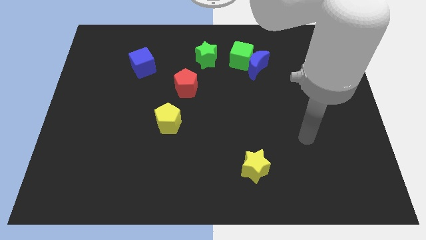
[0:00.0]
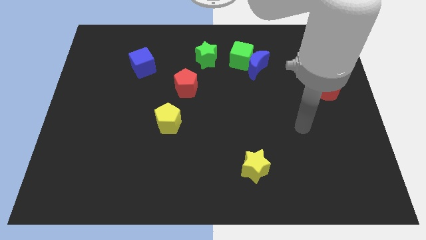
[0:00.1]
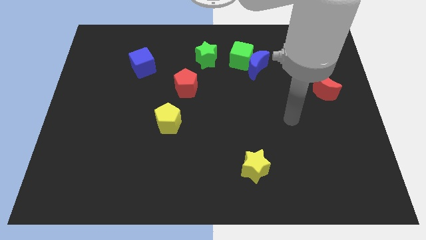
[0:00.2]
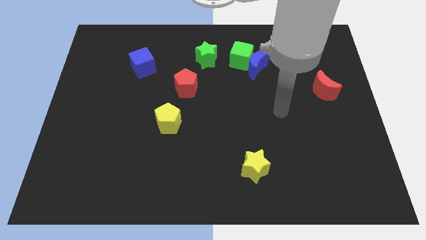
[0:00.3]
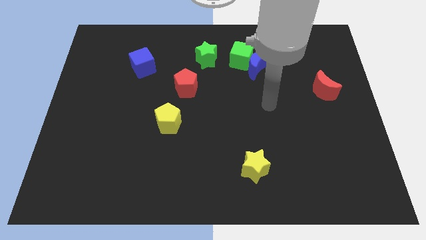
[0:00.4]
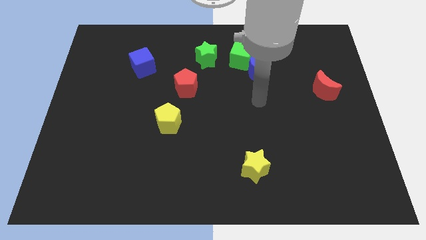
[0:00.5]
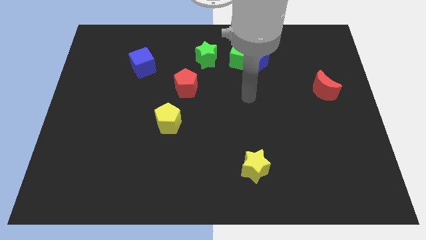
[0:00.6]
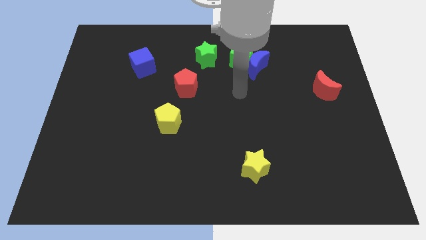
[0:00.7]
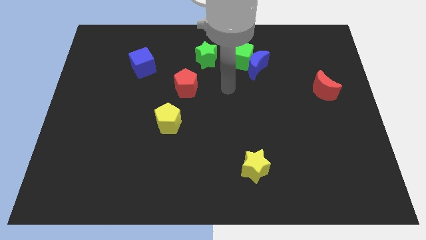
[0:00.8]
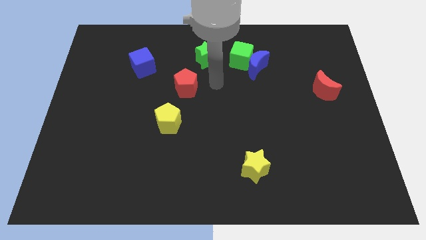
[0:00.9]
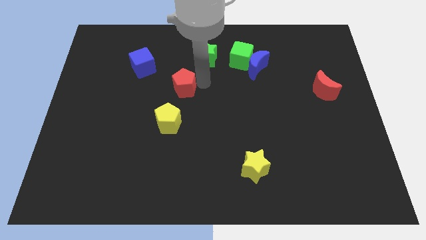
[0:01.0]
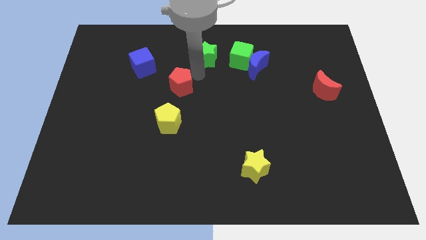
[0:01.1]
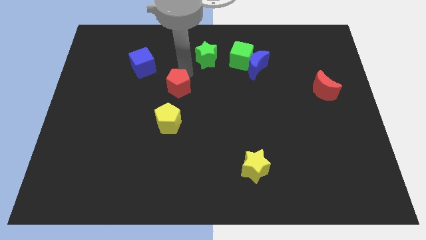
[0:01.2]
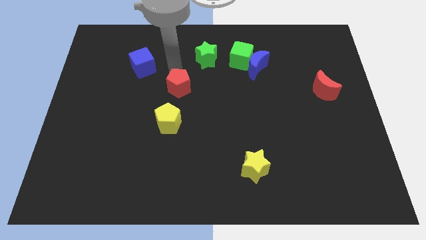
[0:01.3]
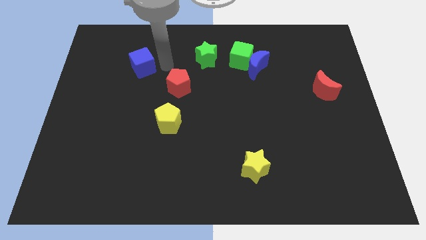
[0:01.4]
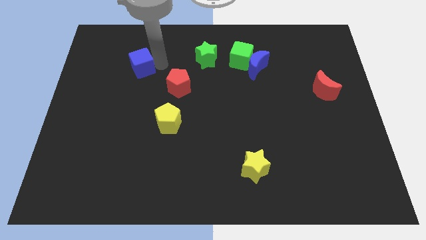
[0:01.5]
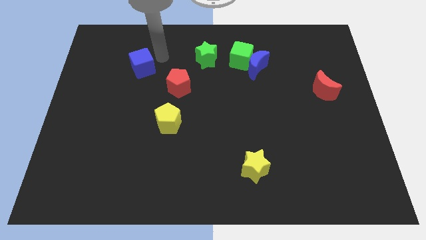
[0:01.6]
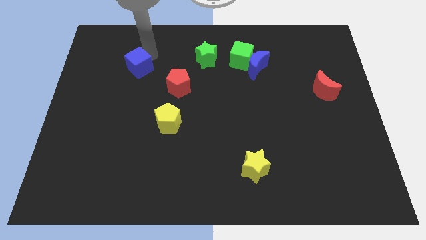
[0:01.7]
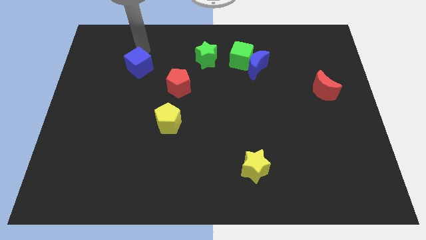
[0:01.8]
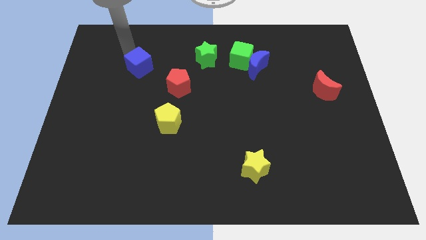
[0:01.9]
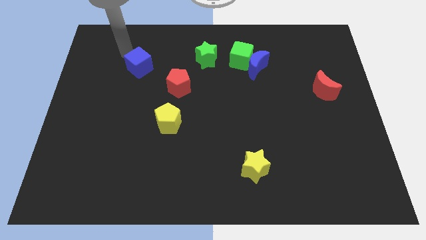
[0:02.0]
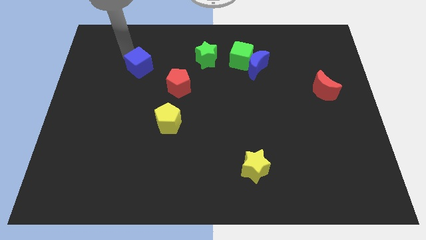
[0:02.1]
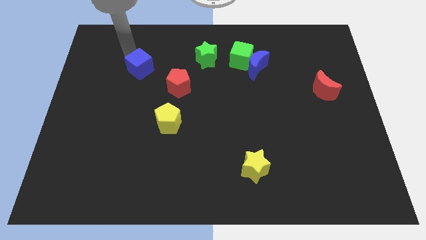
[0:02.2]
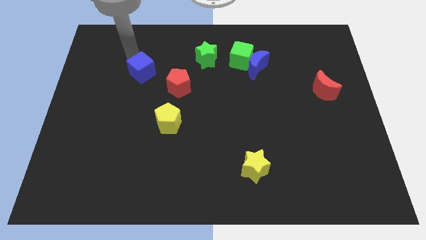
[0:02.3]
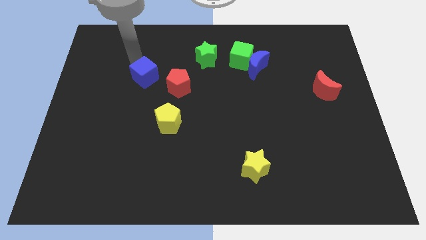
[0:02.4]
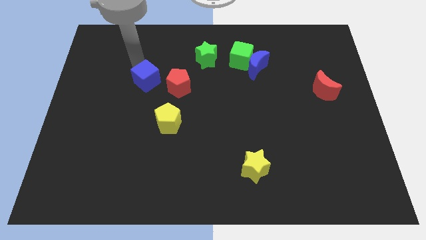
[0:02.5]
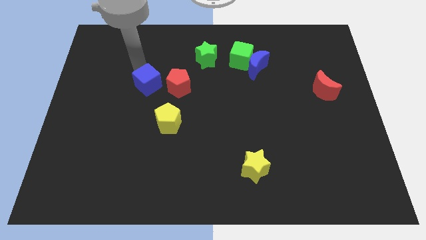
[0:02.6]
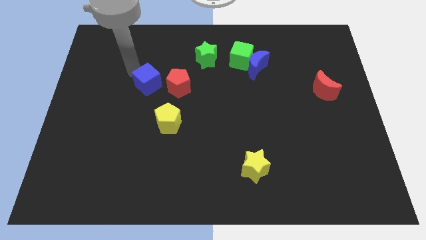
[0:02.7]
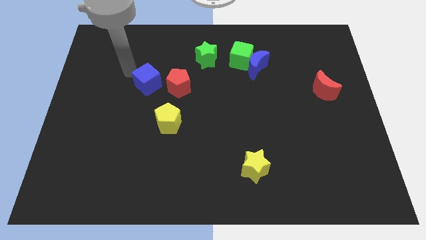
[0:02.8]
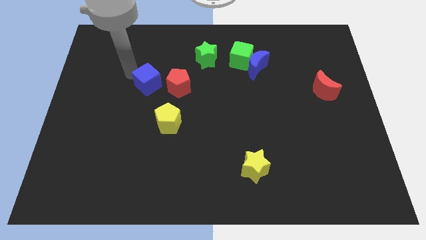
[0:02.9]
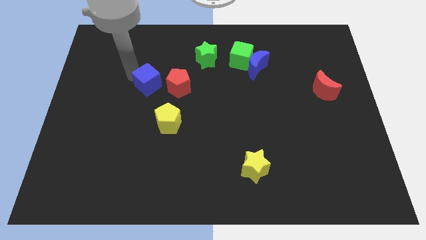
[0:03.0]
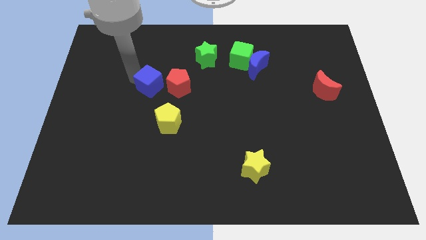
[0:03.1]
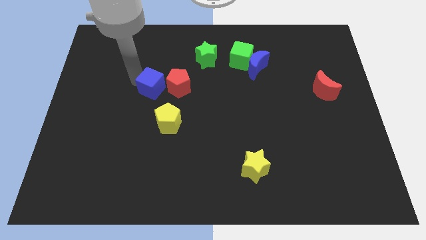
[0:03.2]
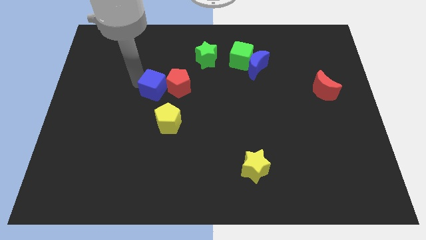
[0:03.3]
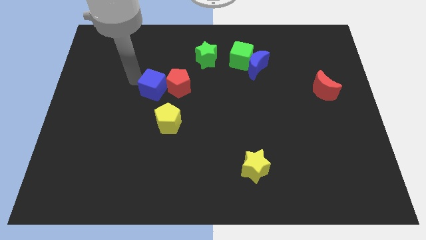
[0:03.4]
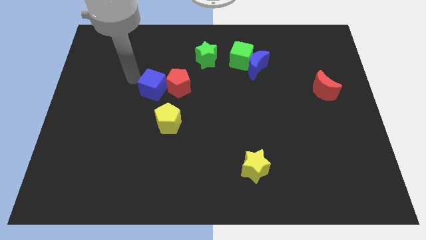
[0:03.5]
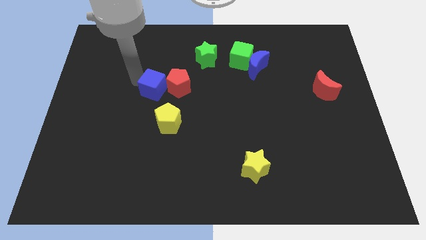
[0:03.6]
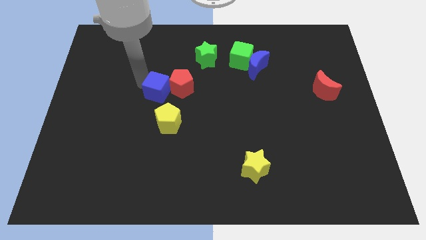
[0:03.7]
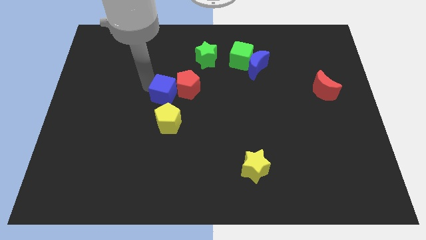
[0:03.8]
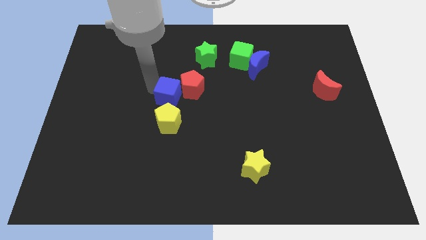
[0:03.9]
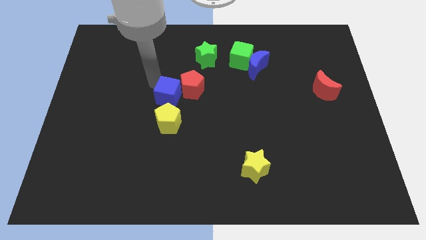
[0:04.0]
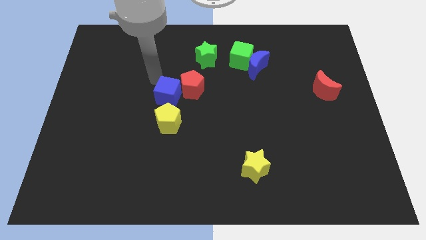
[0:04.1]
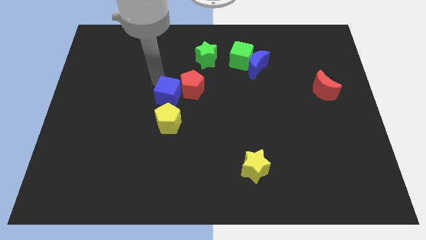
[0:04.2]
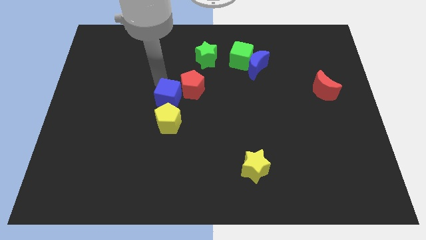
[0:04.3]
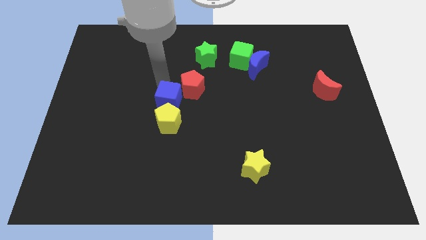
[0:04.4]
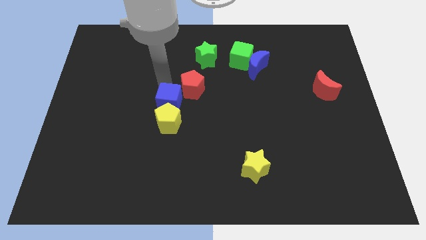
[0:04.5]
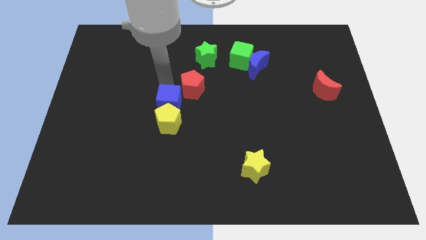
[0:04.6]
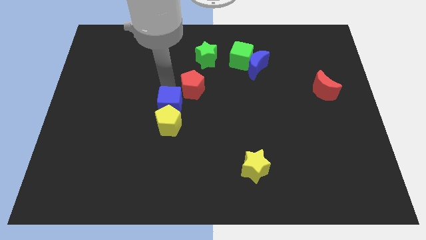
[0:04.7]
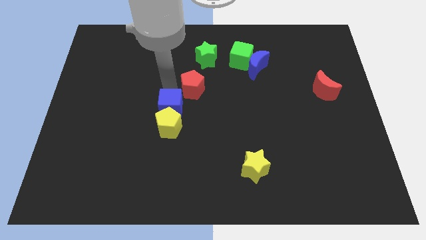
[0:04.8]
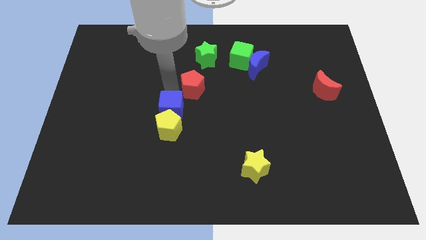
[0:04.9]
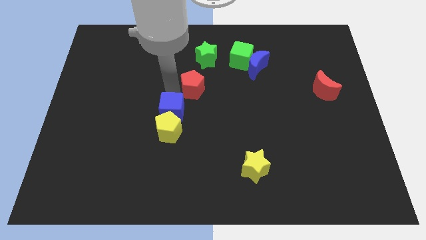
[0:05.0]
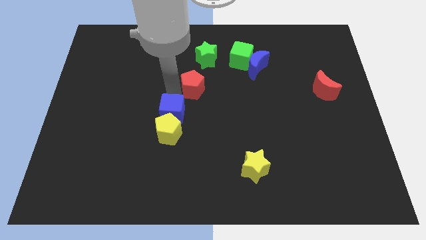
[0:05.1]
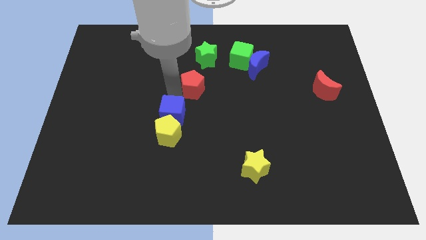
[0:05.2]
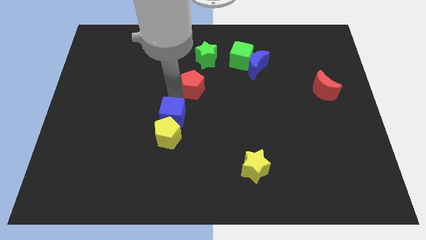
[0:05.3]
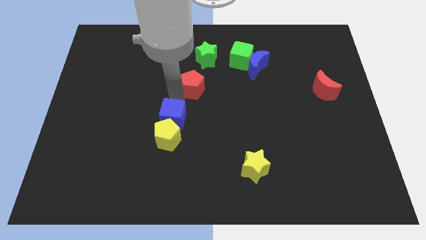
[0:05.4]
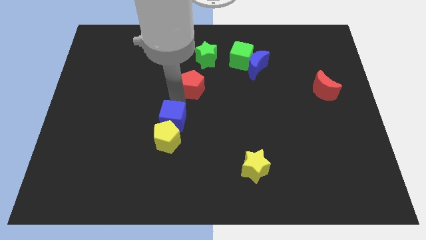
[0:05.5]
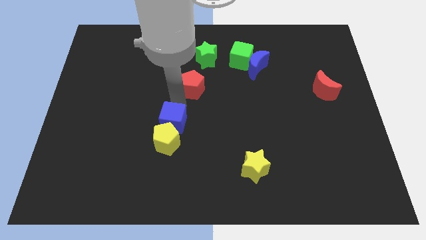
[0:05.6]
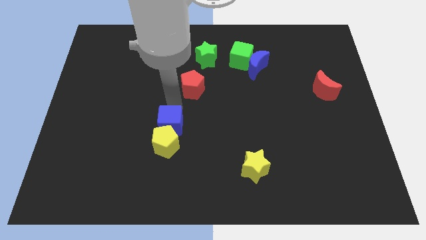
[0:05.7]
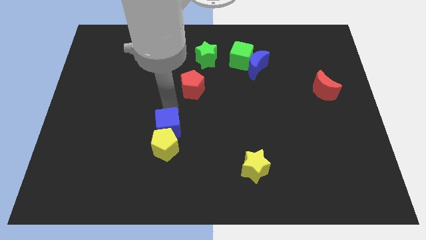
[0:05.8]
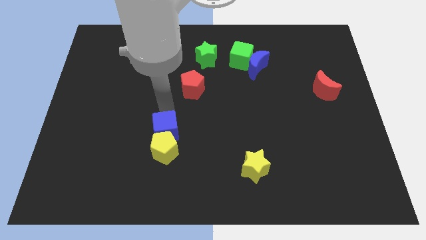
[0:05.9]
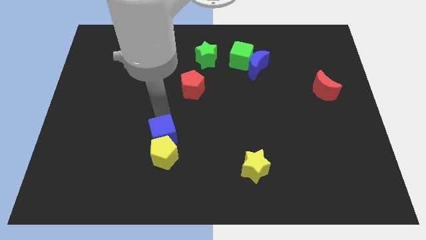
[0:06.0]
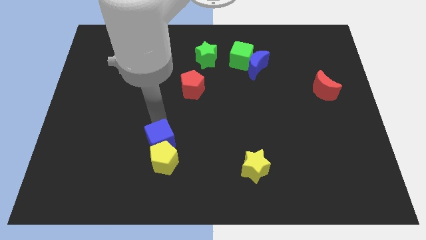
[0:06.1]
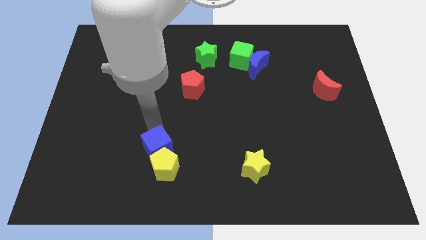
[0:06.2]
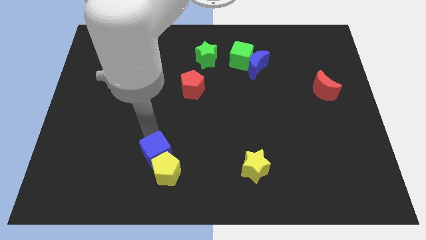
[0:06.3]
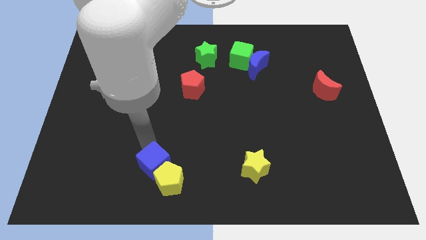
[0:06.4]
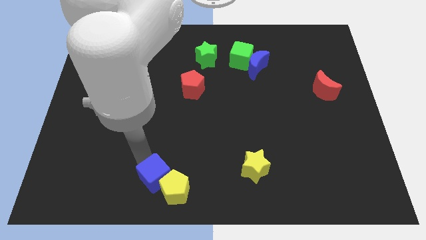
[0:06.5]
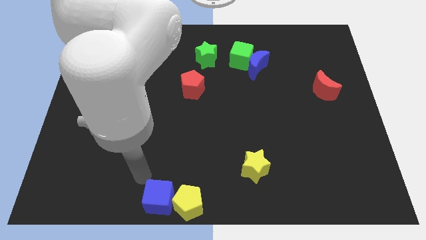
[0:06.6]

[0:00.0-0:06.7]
push the blue cube to the bottom side
